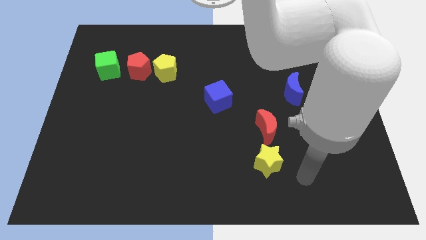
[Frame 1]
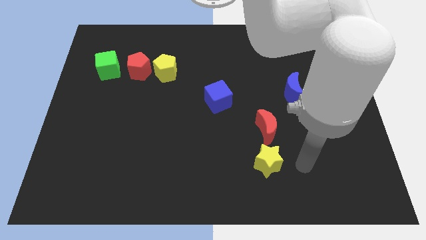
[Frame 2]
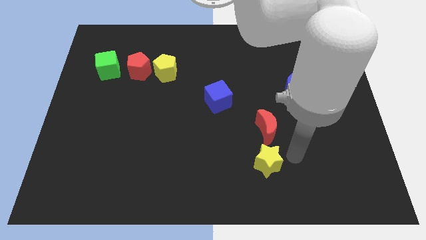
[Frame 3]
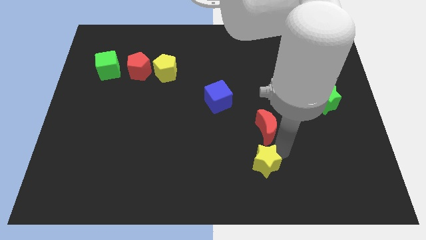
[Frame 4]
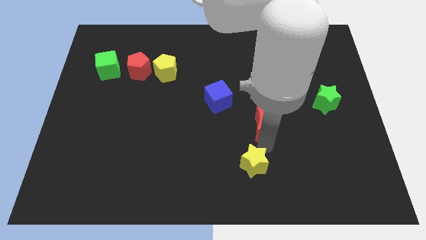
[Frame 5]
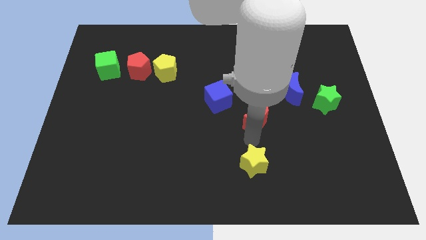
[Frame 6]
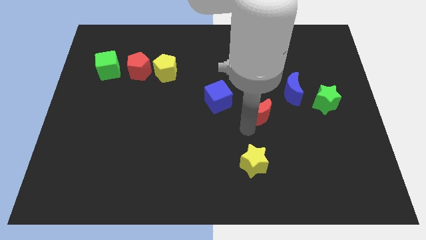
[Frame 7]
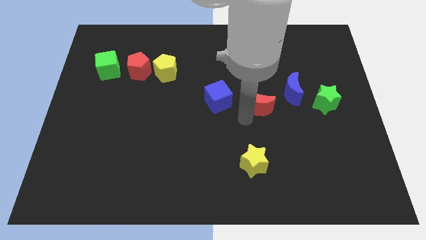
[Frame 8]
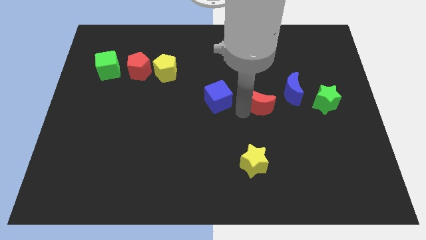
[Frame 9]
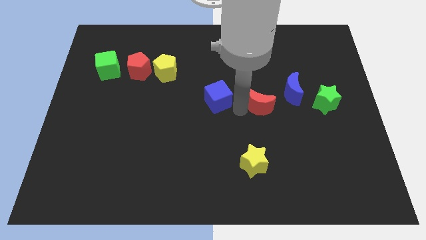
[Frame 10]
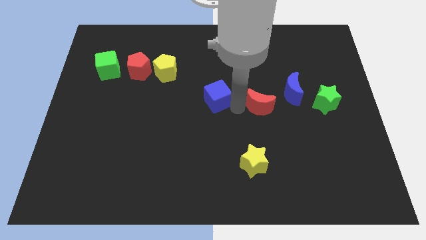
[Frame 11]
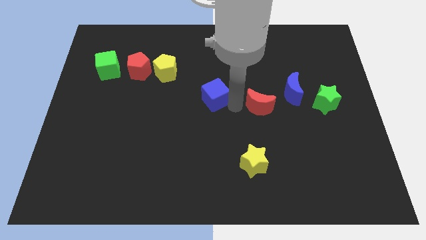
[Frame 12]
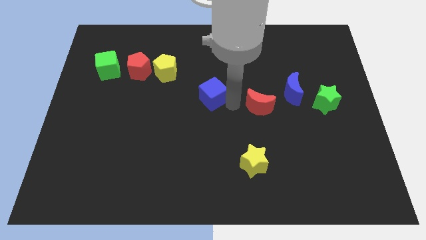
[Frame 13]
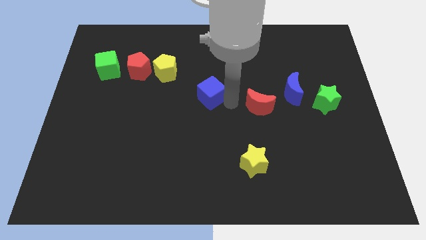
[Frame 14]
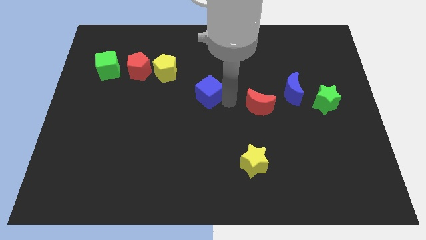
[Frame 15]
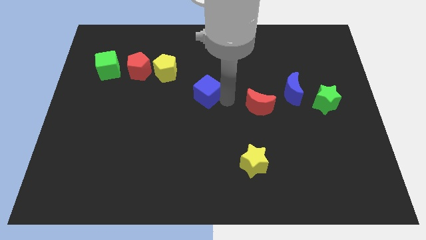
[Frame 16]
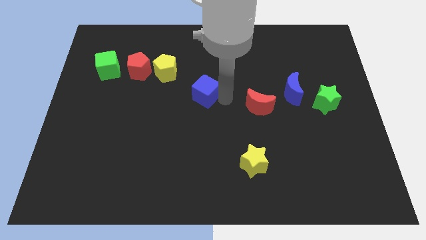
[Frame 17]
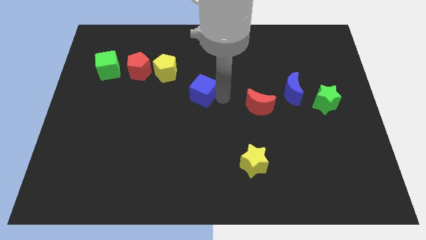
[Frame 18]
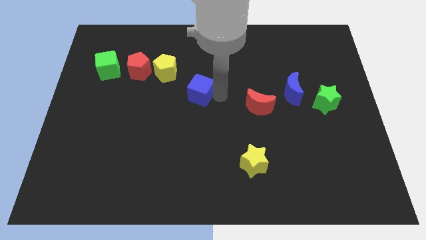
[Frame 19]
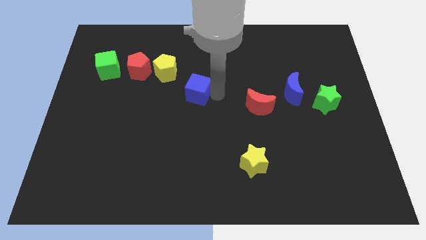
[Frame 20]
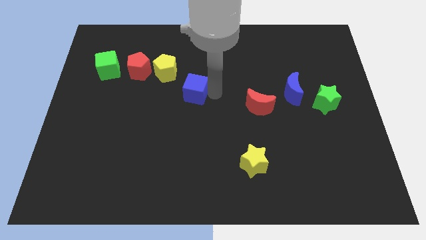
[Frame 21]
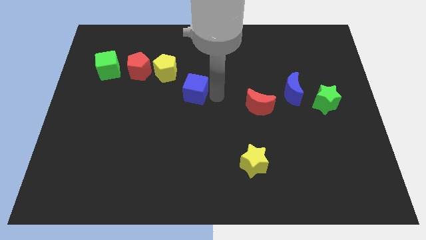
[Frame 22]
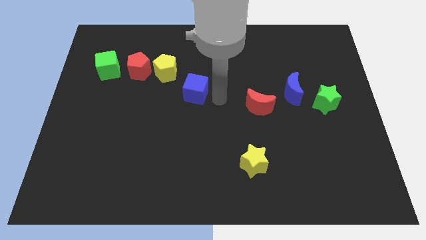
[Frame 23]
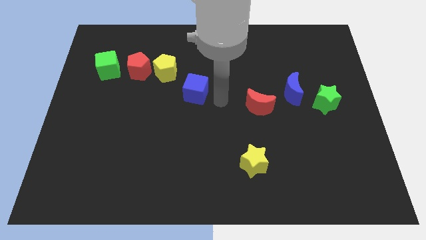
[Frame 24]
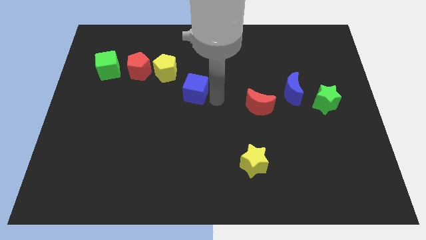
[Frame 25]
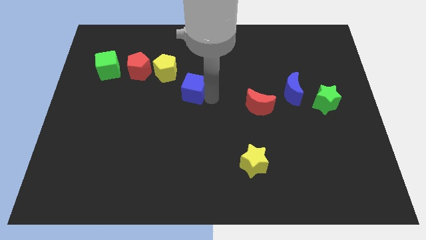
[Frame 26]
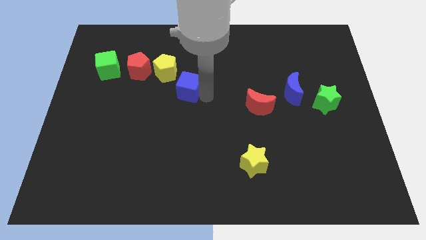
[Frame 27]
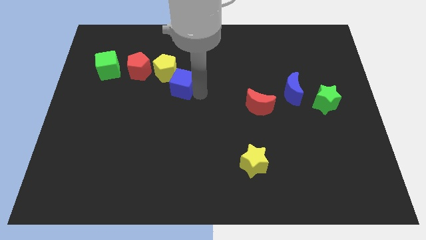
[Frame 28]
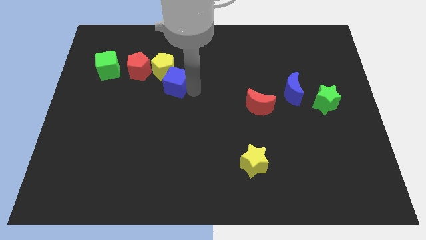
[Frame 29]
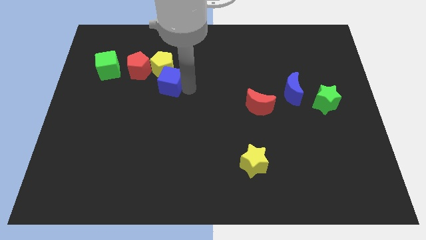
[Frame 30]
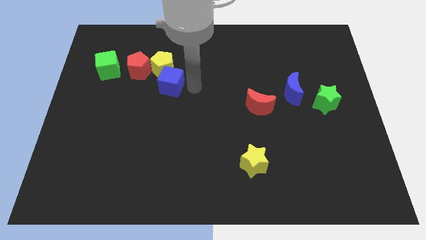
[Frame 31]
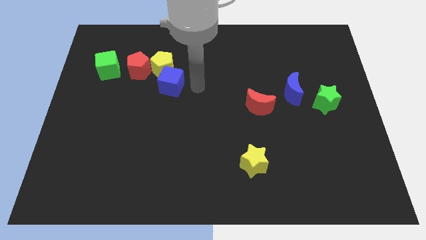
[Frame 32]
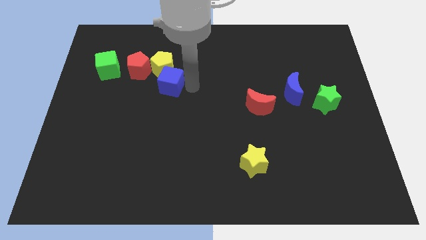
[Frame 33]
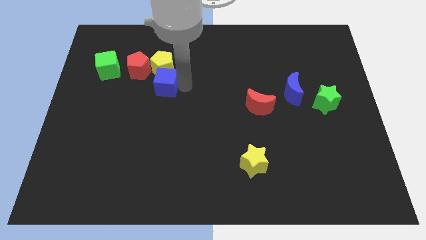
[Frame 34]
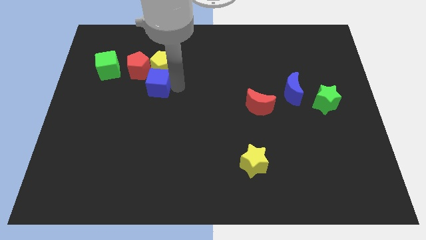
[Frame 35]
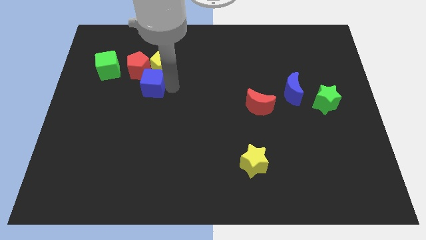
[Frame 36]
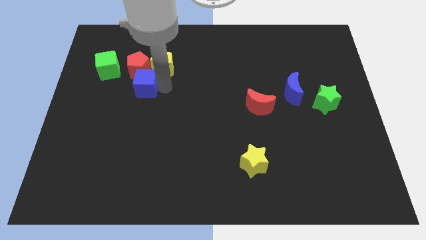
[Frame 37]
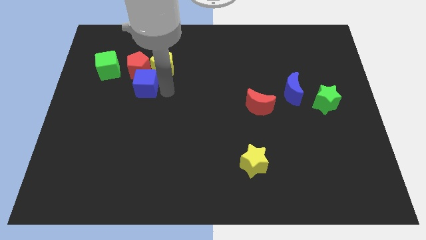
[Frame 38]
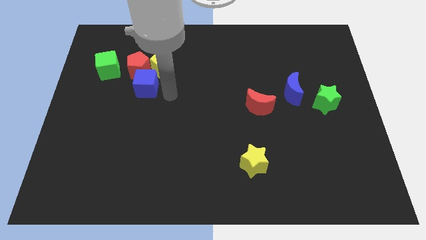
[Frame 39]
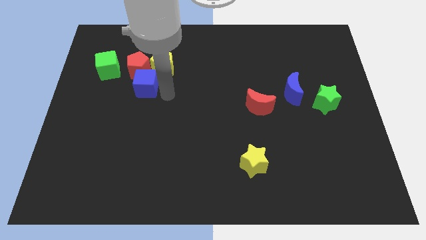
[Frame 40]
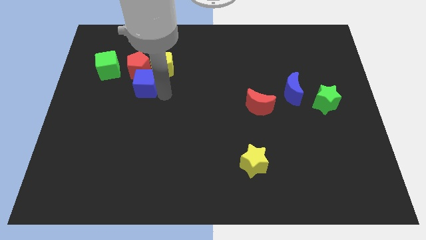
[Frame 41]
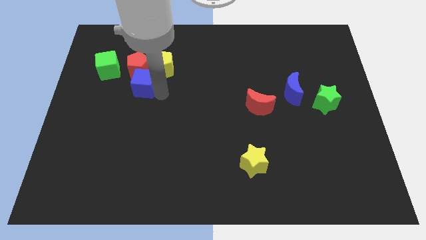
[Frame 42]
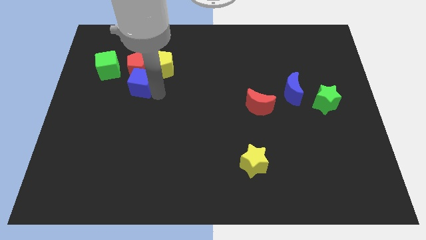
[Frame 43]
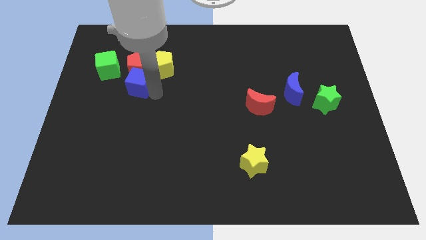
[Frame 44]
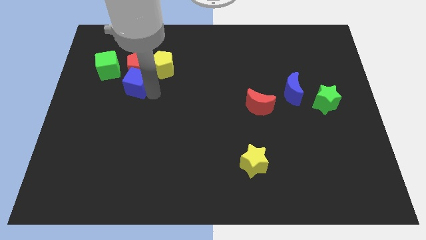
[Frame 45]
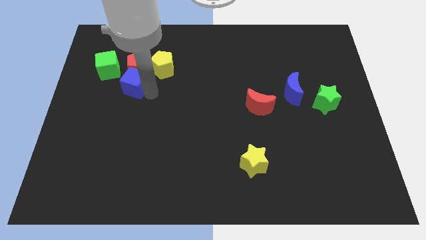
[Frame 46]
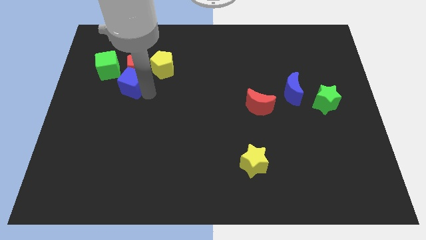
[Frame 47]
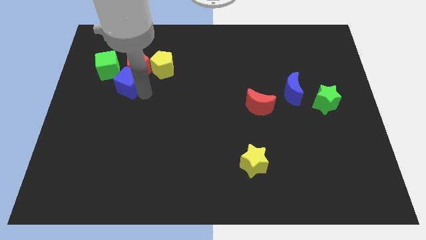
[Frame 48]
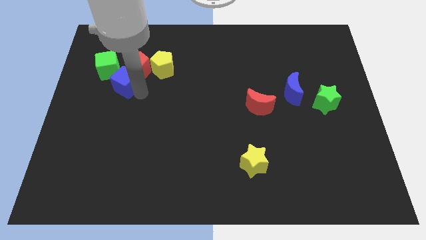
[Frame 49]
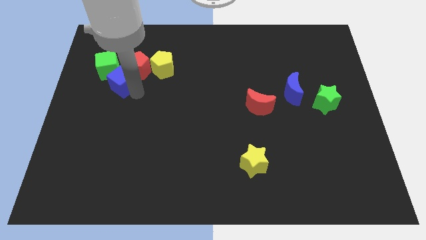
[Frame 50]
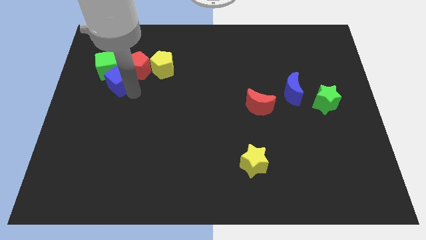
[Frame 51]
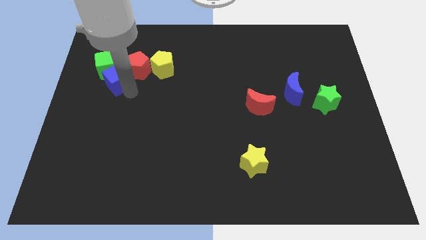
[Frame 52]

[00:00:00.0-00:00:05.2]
push the blue cube close to the green cube

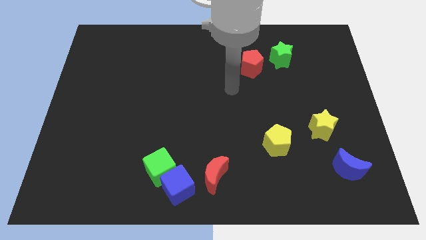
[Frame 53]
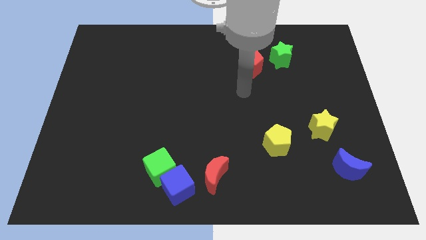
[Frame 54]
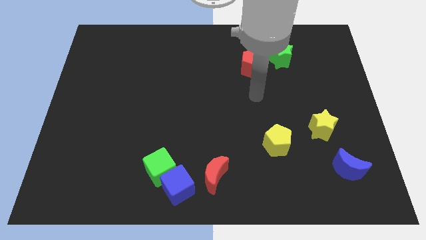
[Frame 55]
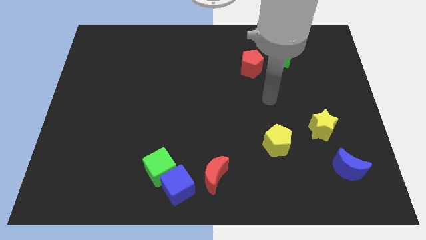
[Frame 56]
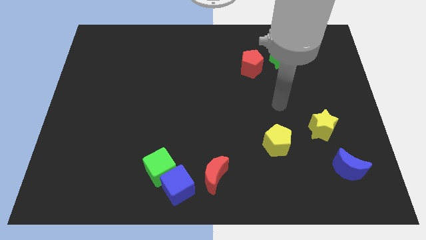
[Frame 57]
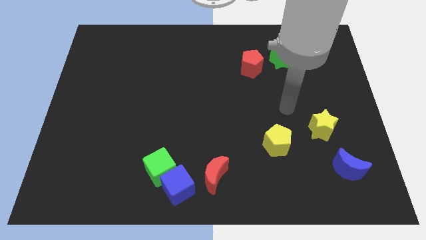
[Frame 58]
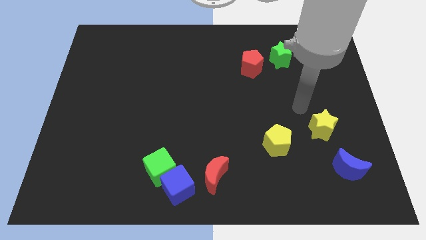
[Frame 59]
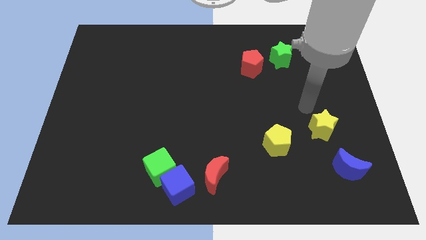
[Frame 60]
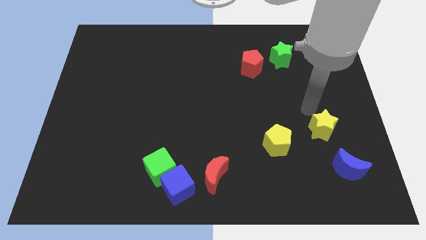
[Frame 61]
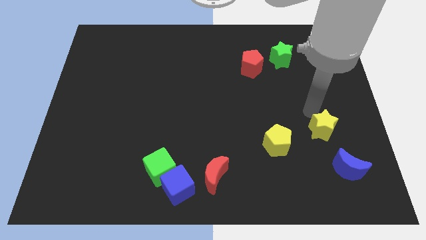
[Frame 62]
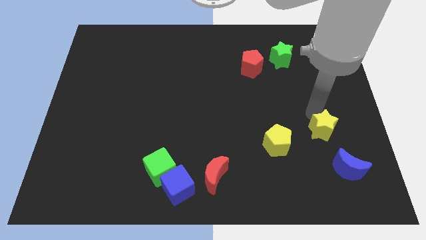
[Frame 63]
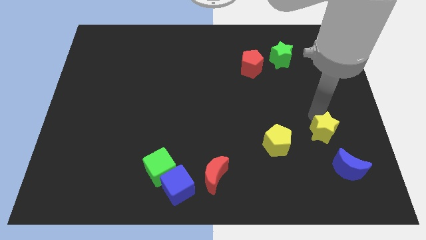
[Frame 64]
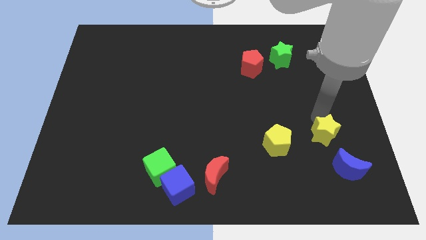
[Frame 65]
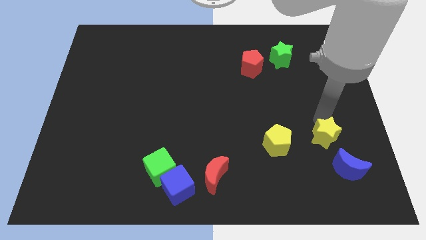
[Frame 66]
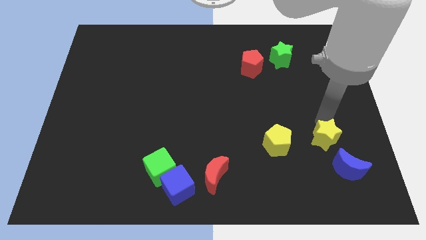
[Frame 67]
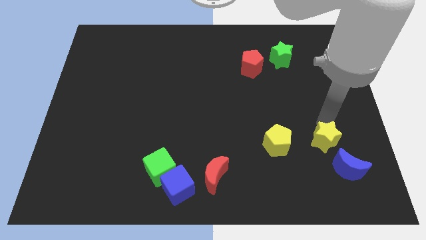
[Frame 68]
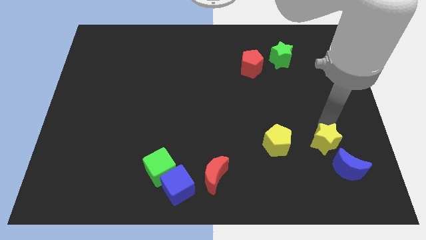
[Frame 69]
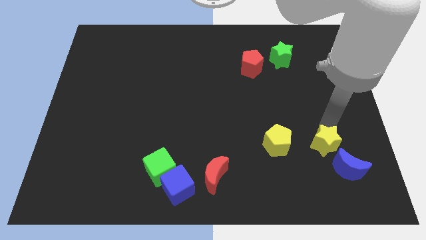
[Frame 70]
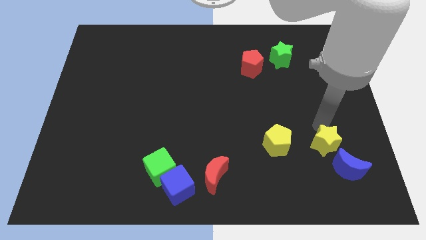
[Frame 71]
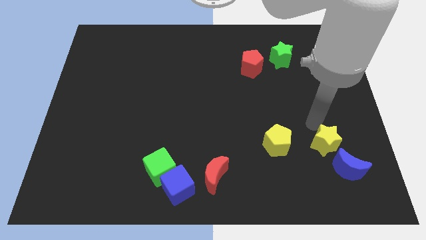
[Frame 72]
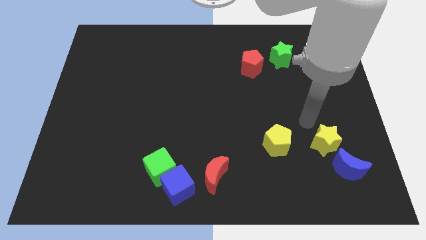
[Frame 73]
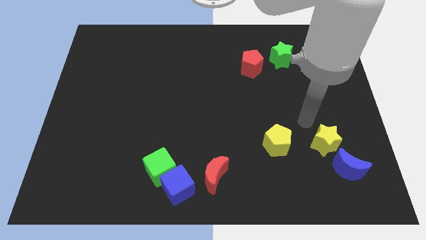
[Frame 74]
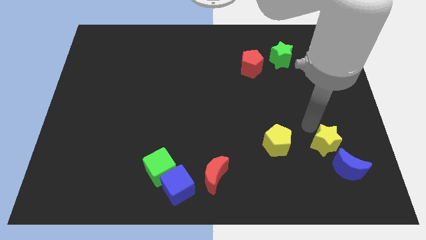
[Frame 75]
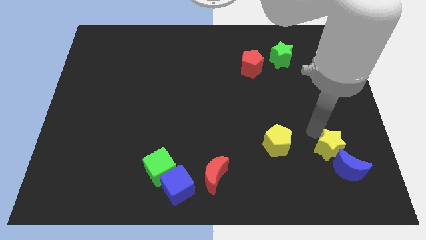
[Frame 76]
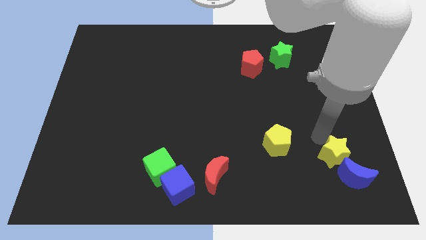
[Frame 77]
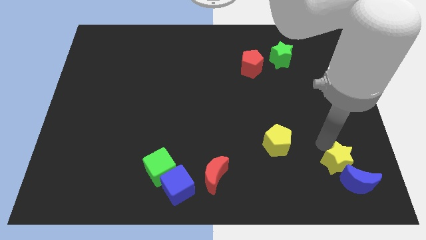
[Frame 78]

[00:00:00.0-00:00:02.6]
put the yellow star close to the blue moon
